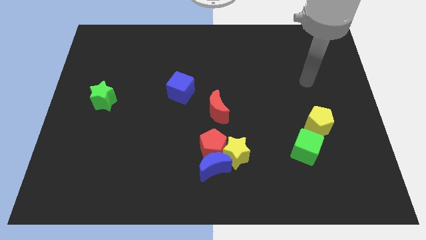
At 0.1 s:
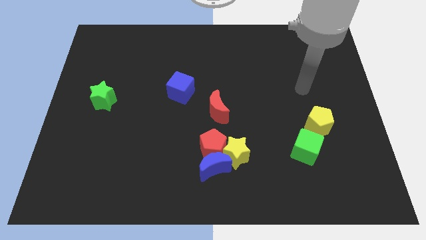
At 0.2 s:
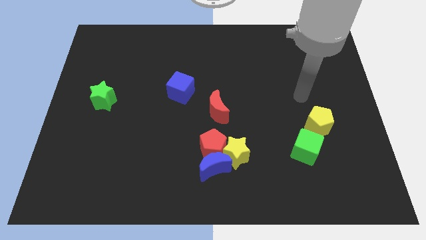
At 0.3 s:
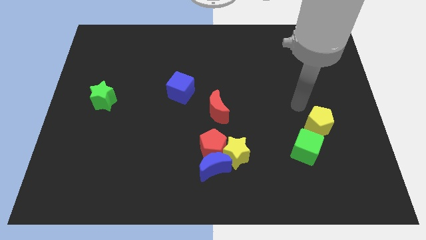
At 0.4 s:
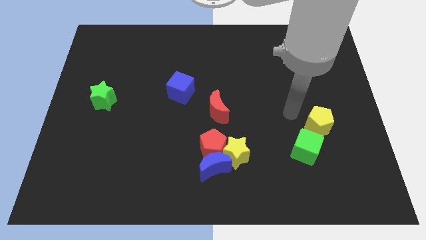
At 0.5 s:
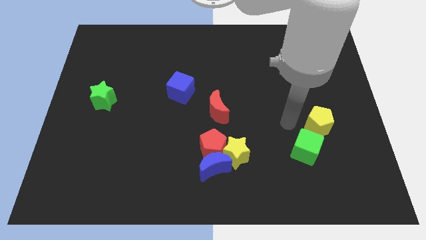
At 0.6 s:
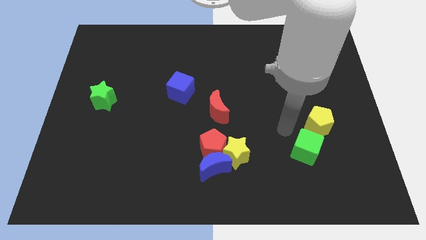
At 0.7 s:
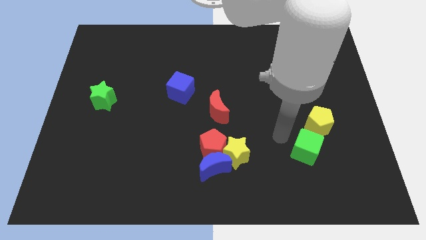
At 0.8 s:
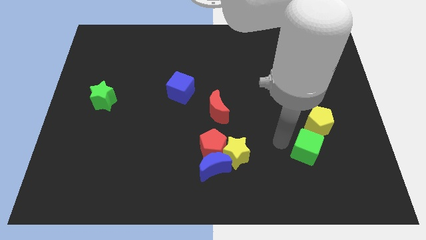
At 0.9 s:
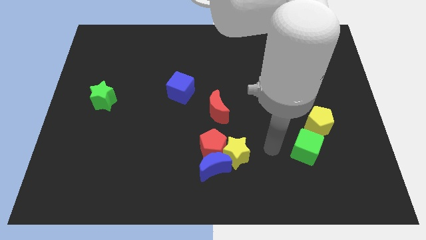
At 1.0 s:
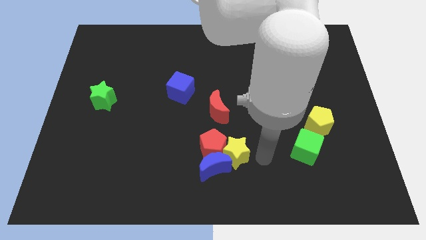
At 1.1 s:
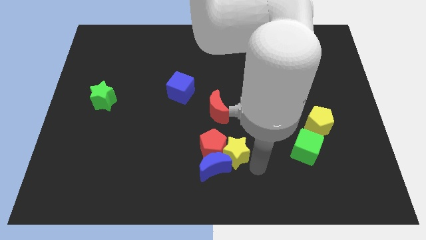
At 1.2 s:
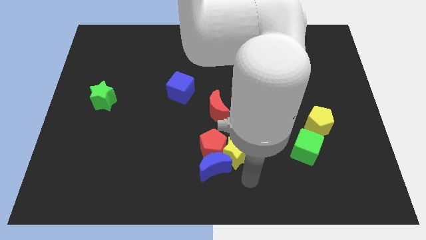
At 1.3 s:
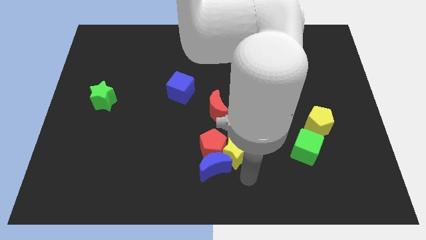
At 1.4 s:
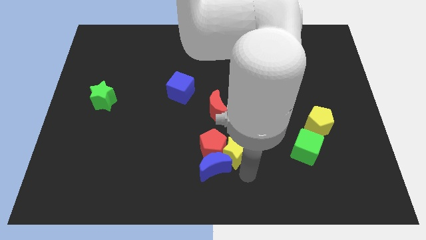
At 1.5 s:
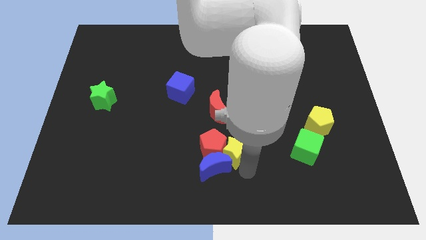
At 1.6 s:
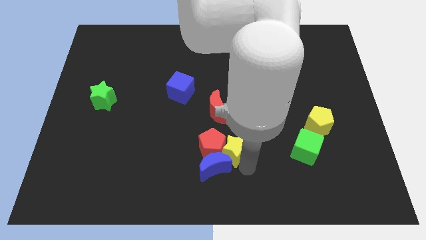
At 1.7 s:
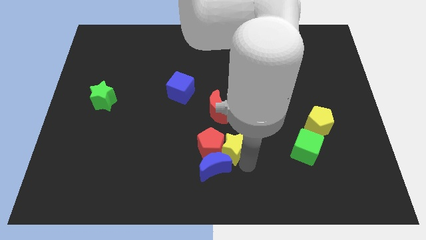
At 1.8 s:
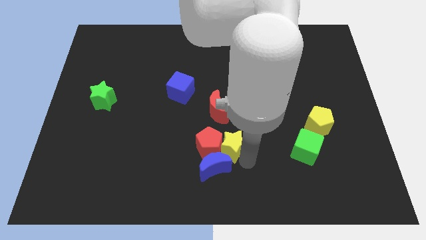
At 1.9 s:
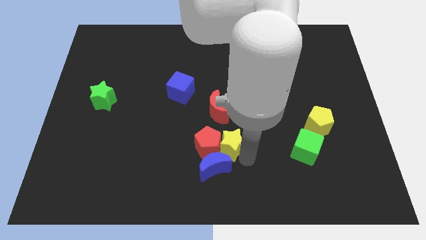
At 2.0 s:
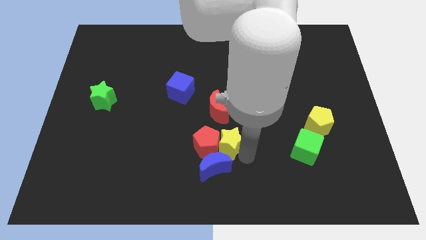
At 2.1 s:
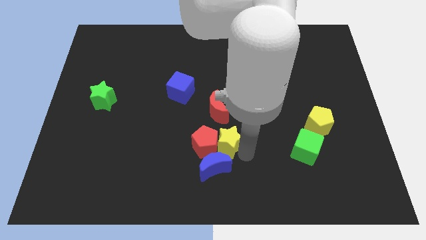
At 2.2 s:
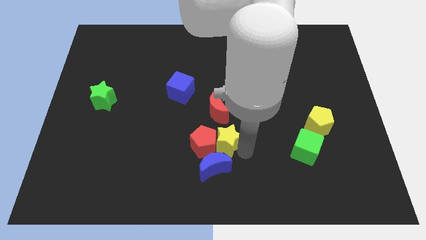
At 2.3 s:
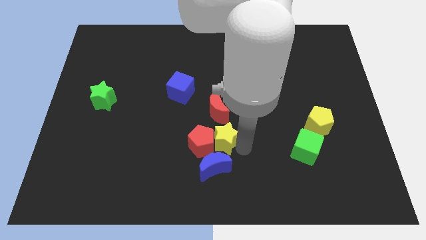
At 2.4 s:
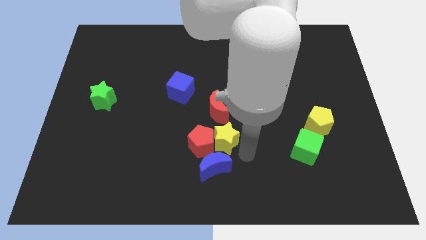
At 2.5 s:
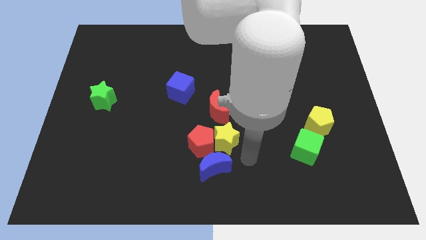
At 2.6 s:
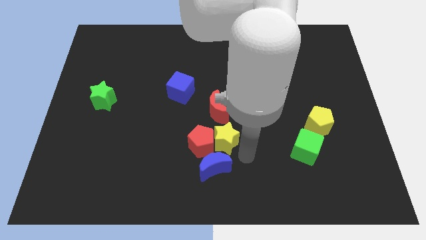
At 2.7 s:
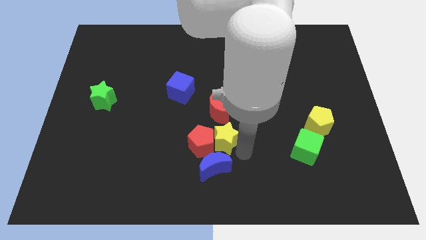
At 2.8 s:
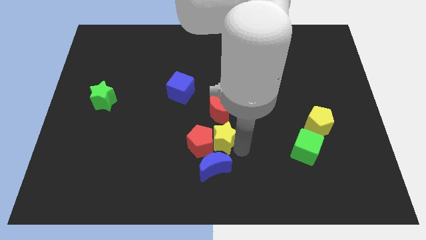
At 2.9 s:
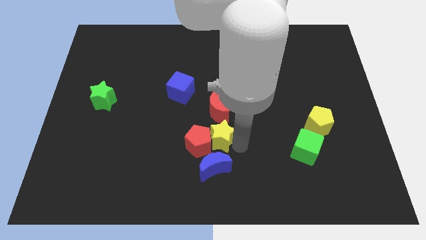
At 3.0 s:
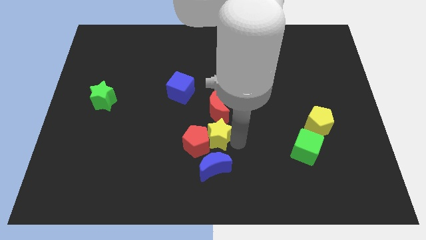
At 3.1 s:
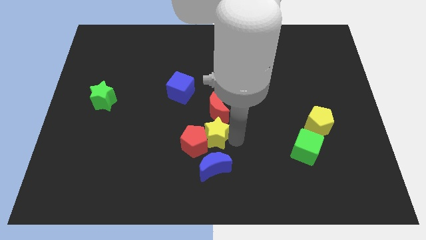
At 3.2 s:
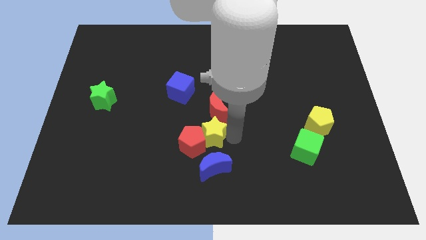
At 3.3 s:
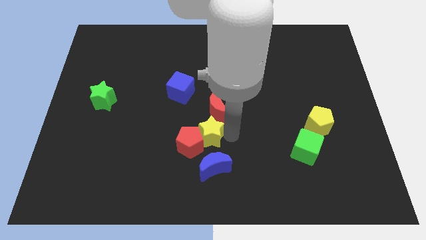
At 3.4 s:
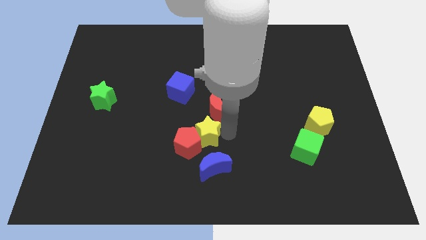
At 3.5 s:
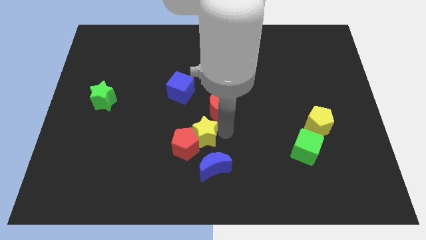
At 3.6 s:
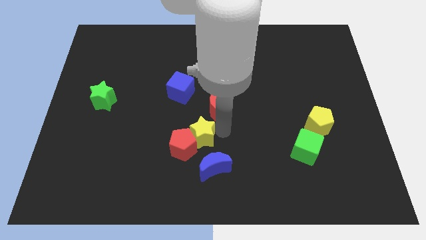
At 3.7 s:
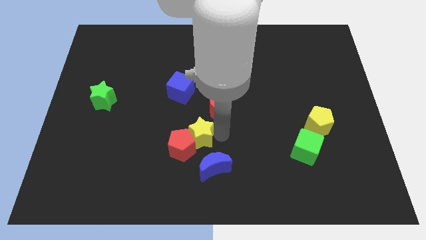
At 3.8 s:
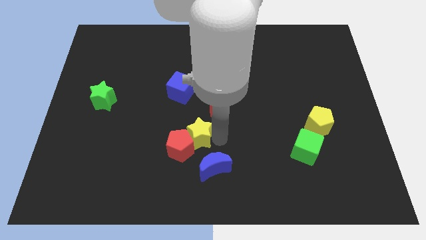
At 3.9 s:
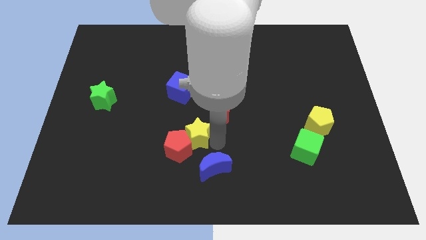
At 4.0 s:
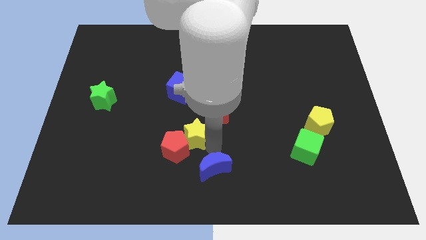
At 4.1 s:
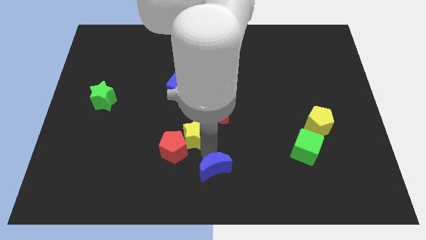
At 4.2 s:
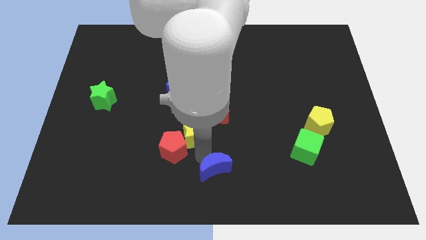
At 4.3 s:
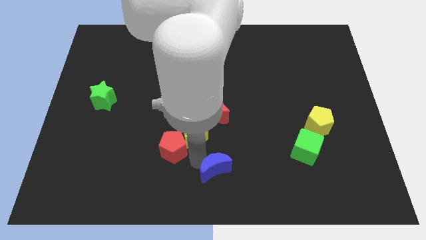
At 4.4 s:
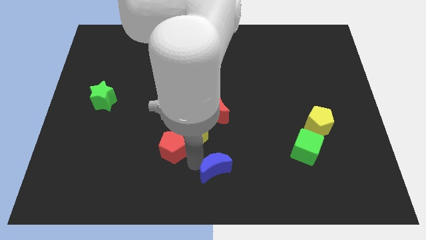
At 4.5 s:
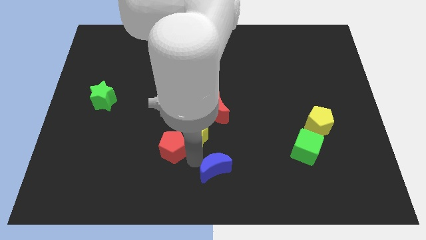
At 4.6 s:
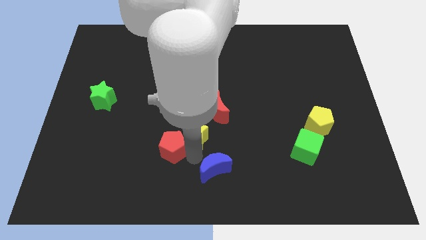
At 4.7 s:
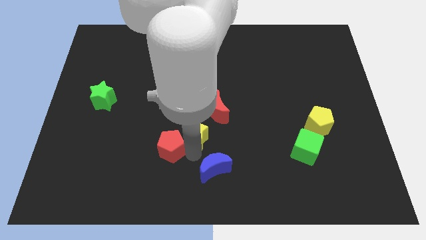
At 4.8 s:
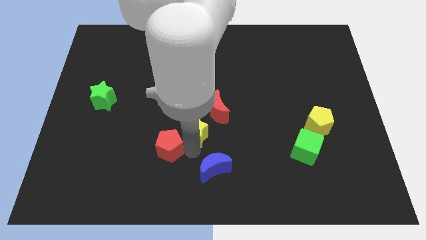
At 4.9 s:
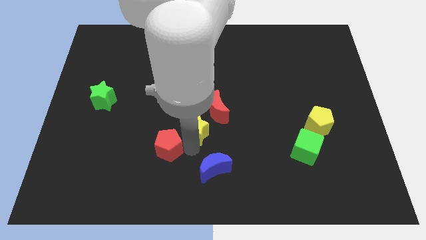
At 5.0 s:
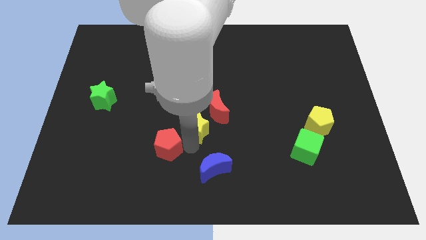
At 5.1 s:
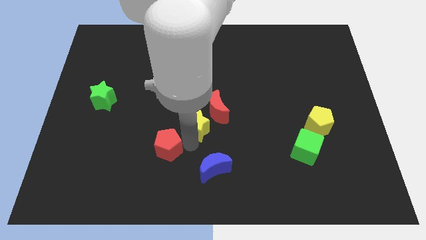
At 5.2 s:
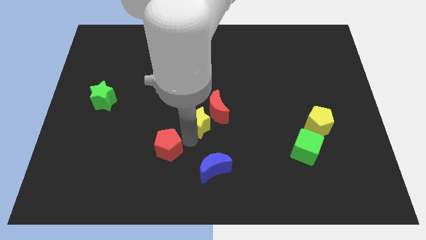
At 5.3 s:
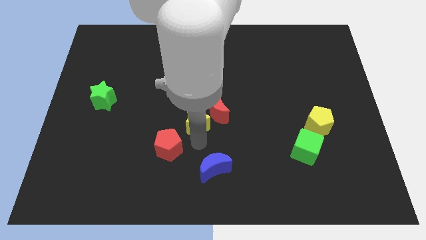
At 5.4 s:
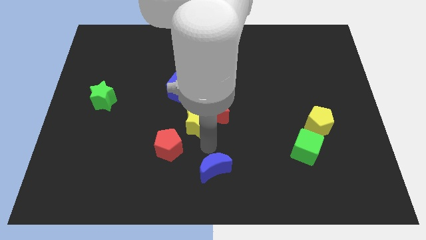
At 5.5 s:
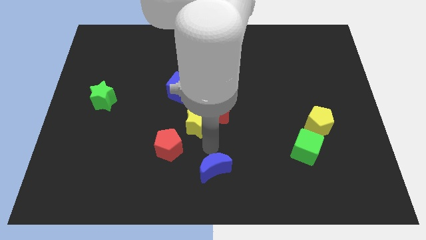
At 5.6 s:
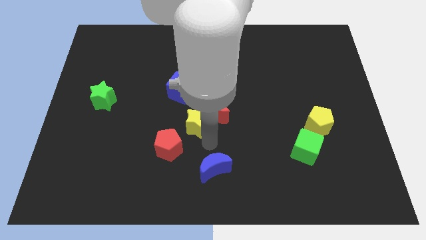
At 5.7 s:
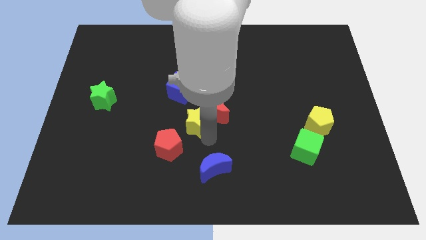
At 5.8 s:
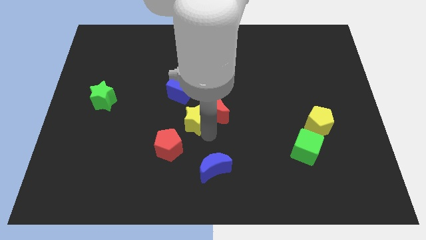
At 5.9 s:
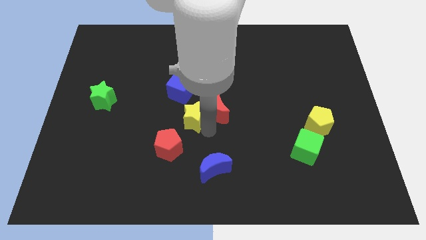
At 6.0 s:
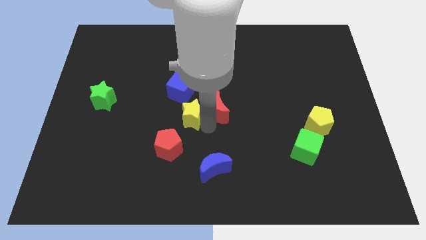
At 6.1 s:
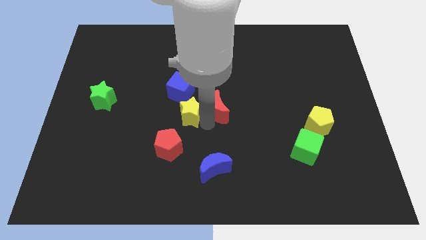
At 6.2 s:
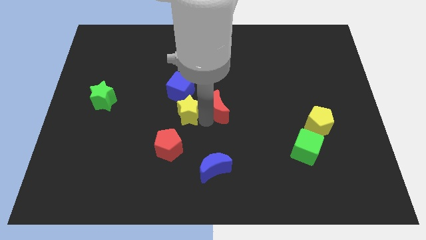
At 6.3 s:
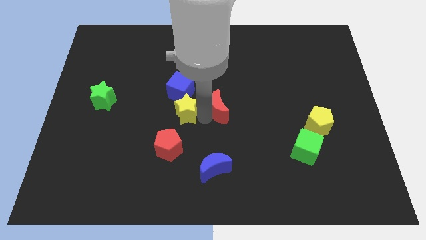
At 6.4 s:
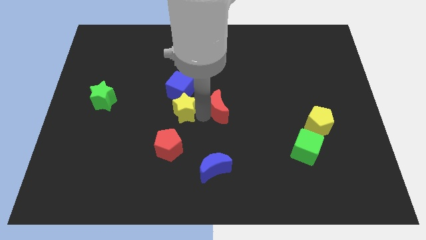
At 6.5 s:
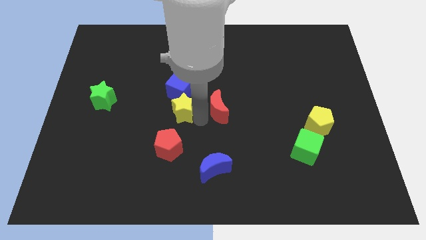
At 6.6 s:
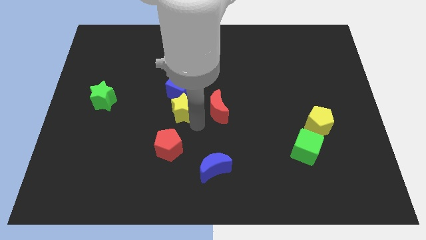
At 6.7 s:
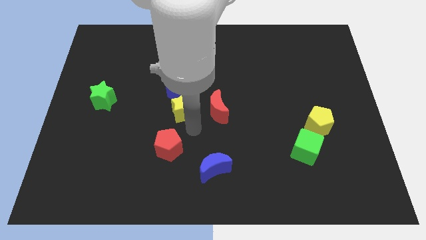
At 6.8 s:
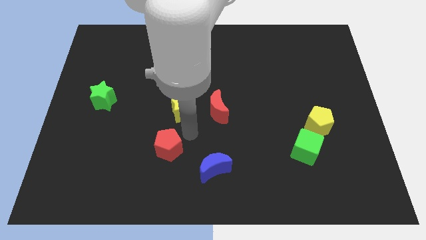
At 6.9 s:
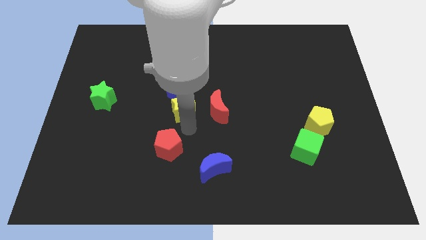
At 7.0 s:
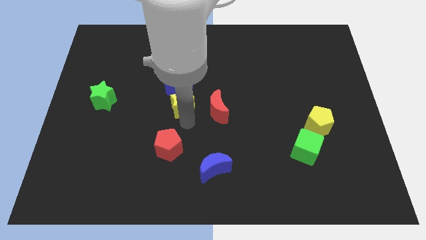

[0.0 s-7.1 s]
move the yellow star towards the blue cube
